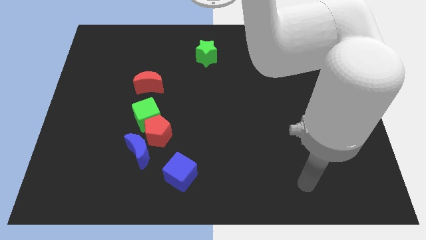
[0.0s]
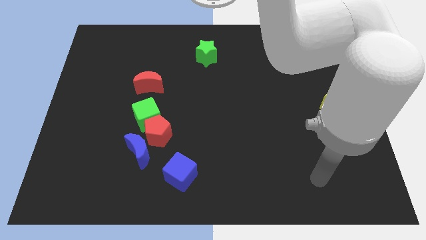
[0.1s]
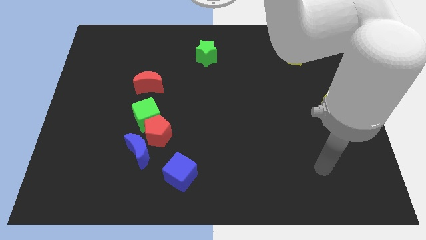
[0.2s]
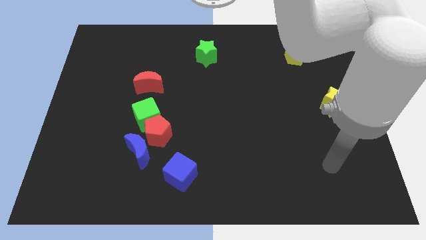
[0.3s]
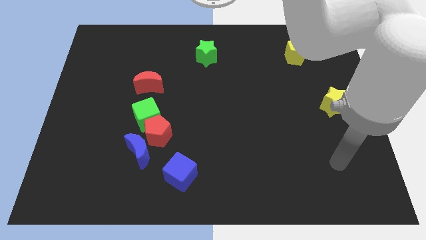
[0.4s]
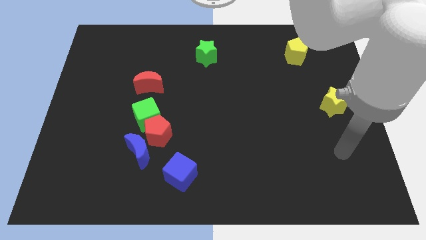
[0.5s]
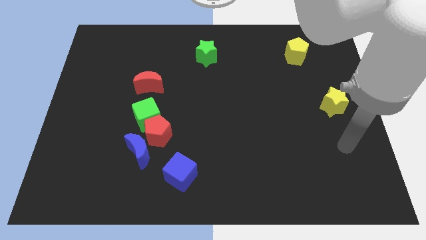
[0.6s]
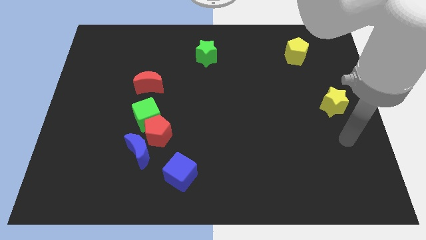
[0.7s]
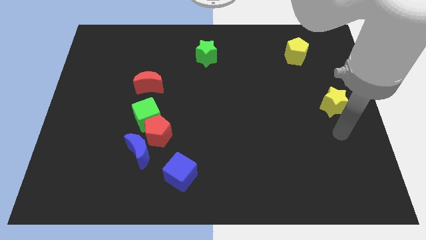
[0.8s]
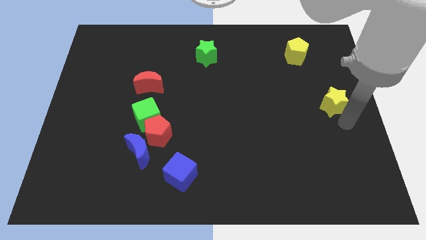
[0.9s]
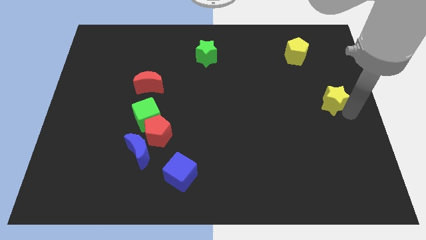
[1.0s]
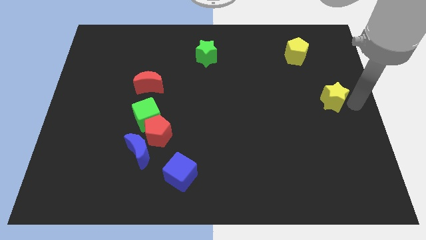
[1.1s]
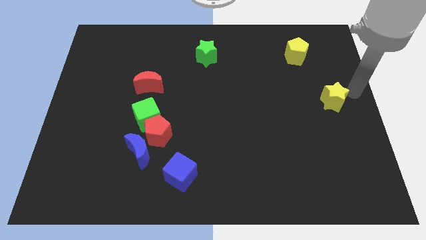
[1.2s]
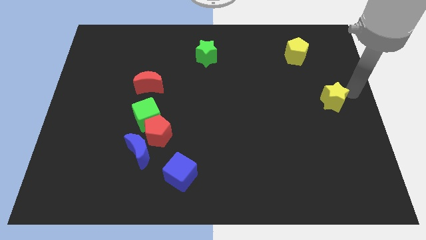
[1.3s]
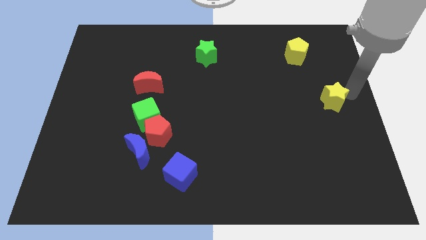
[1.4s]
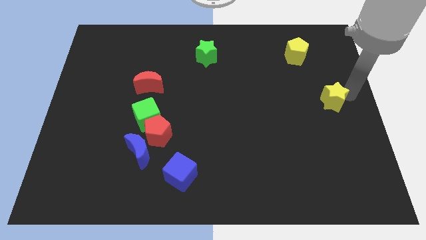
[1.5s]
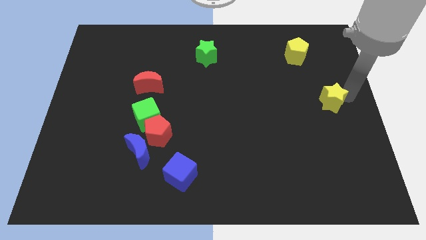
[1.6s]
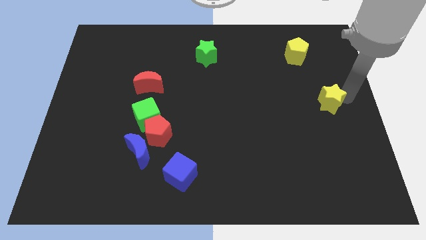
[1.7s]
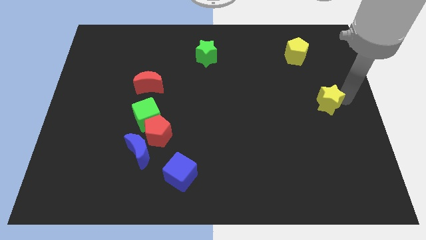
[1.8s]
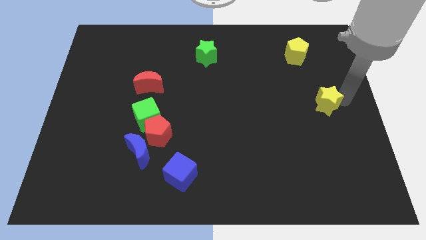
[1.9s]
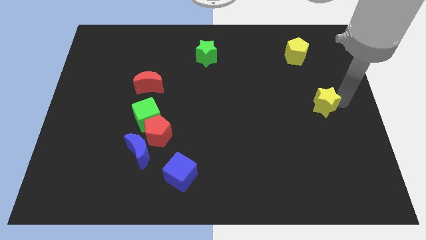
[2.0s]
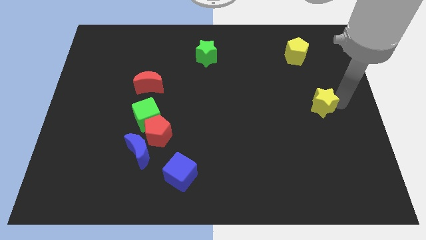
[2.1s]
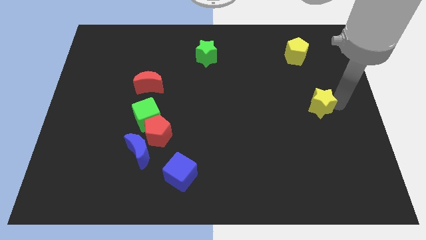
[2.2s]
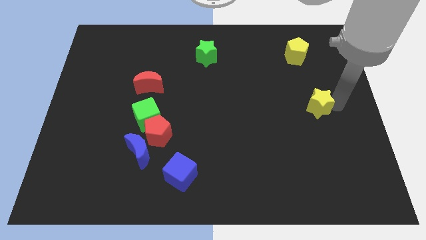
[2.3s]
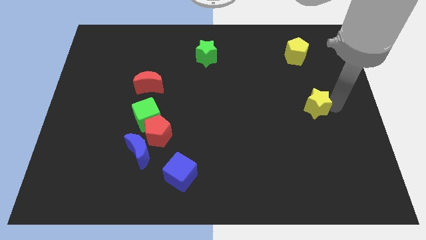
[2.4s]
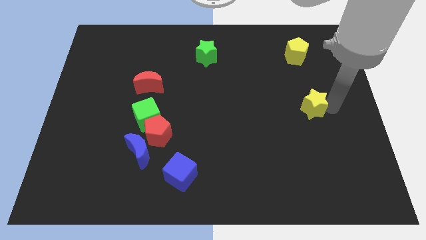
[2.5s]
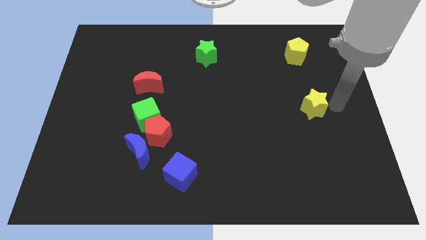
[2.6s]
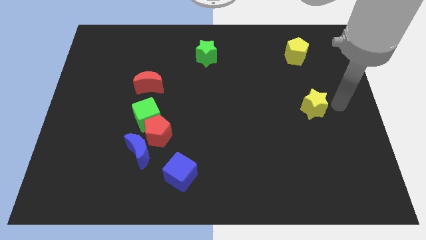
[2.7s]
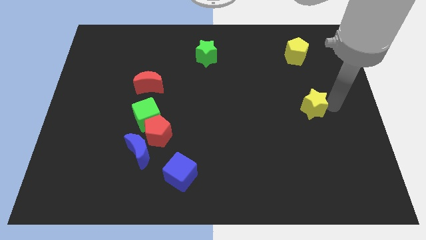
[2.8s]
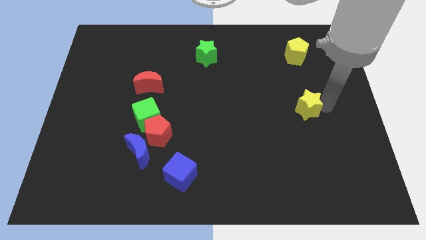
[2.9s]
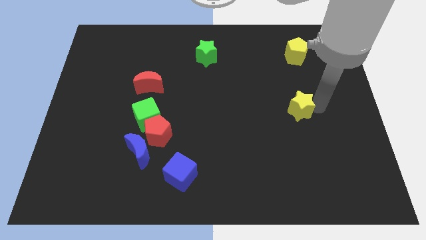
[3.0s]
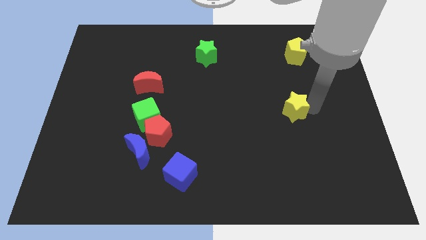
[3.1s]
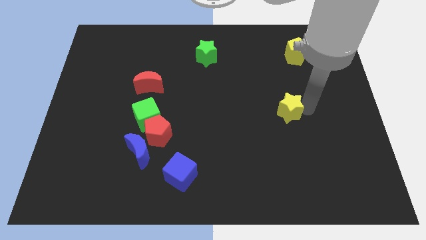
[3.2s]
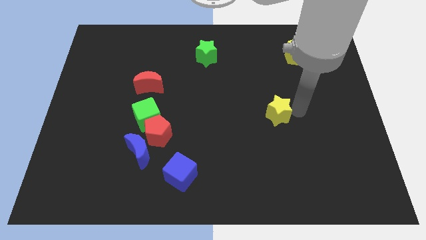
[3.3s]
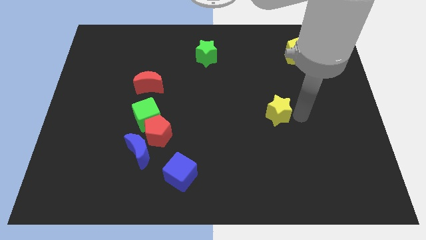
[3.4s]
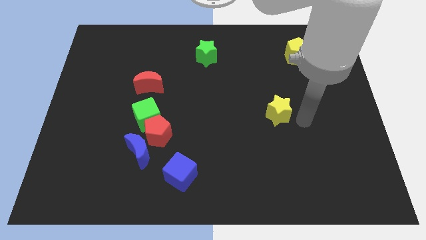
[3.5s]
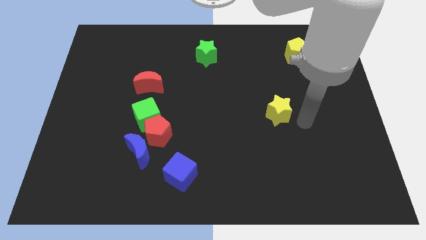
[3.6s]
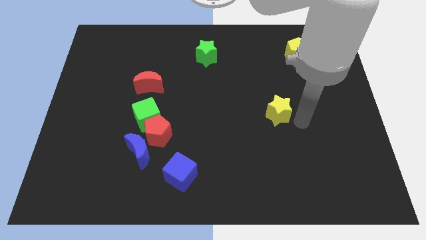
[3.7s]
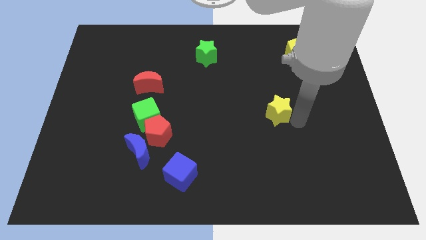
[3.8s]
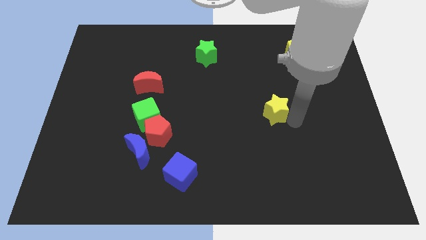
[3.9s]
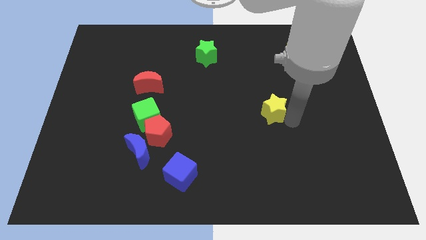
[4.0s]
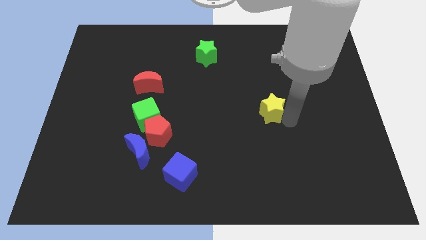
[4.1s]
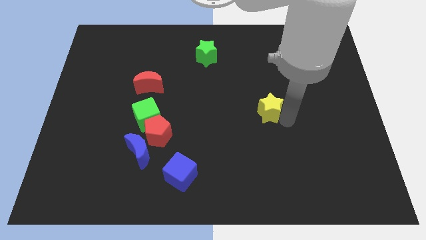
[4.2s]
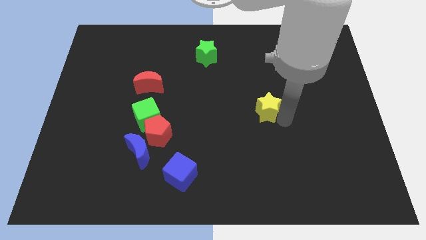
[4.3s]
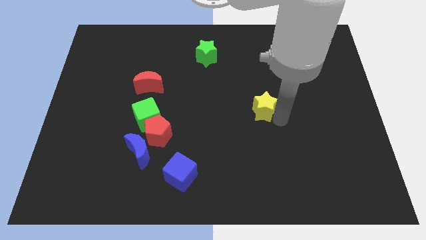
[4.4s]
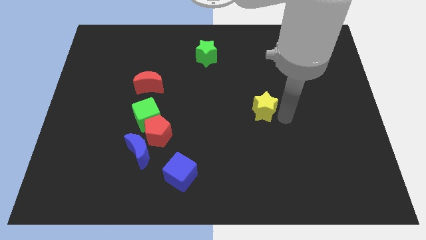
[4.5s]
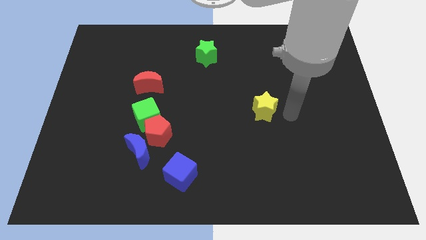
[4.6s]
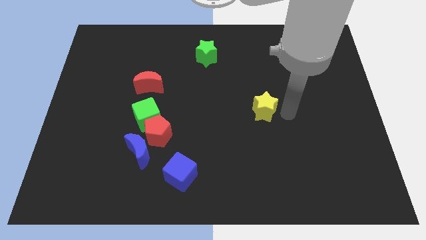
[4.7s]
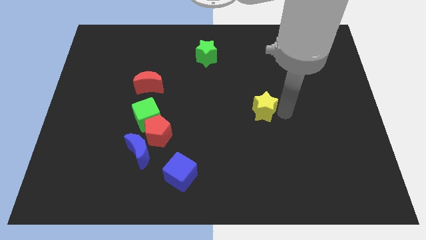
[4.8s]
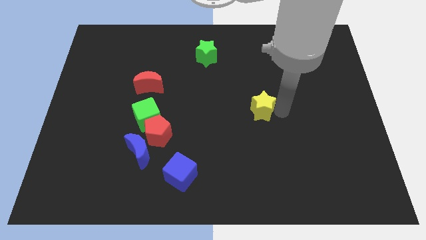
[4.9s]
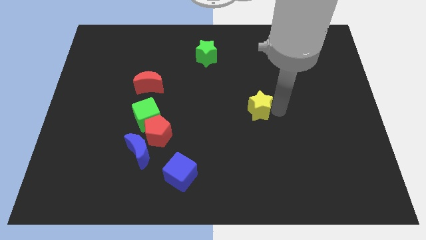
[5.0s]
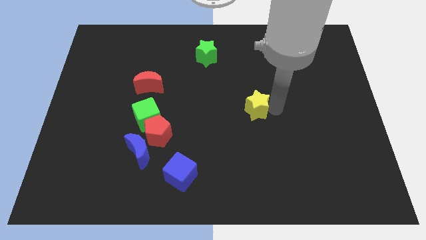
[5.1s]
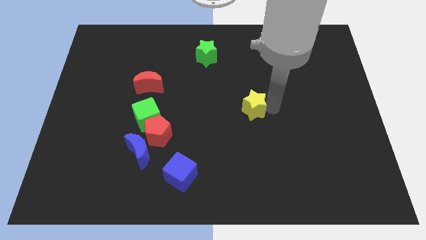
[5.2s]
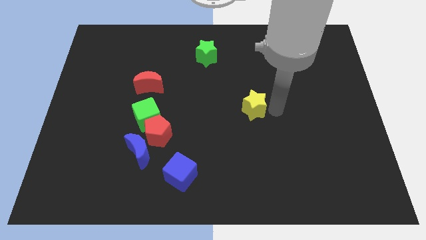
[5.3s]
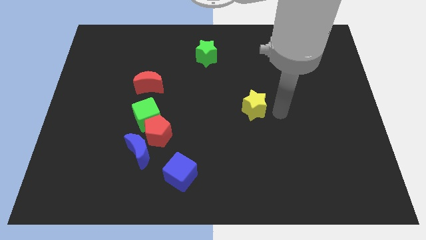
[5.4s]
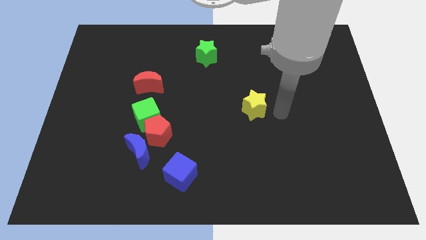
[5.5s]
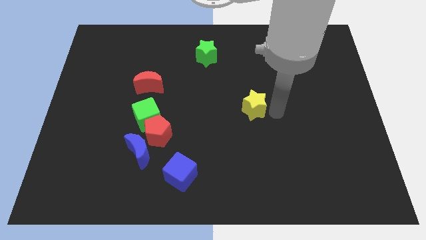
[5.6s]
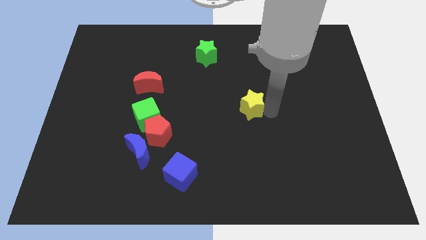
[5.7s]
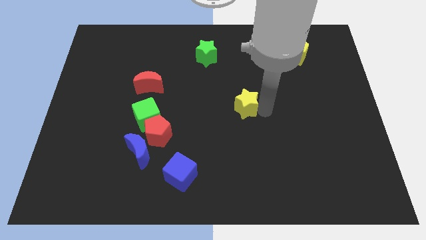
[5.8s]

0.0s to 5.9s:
slide the yellow star left

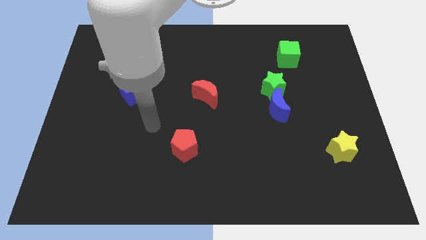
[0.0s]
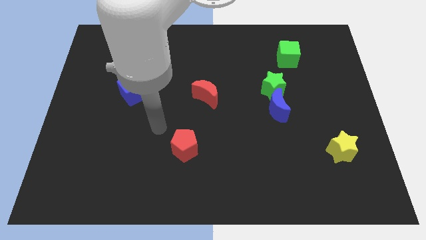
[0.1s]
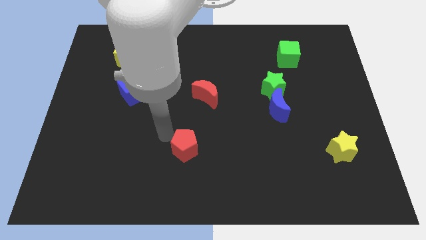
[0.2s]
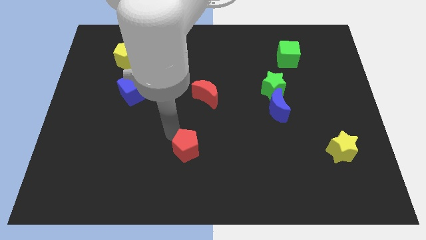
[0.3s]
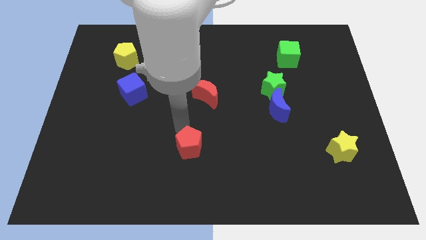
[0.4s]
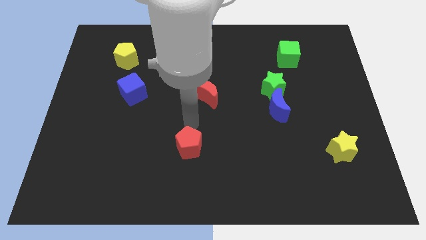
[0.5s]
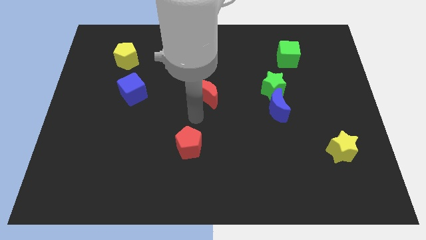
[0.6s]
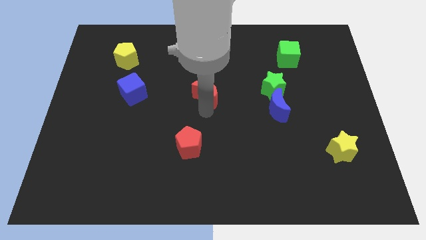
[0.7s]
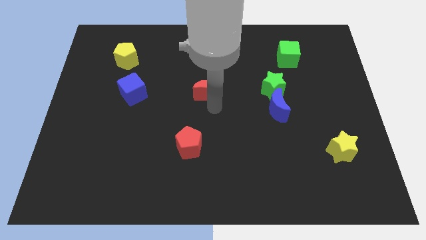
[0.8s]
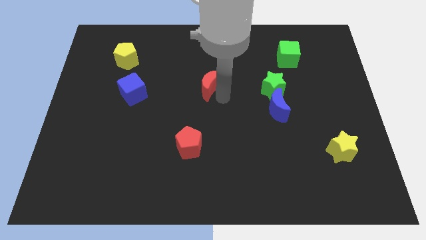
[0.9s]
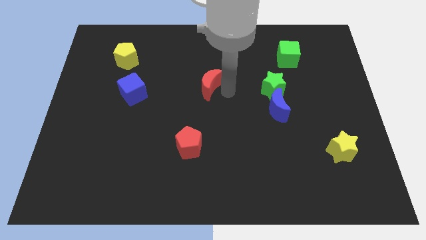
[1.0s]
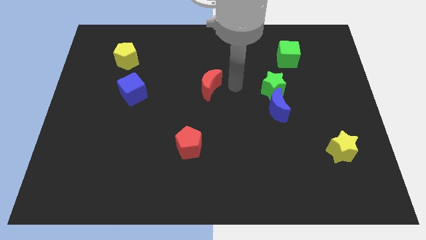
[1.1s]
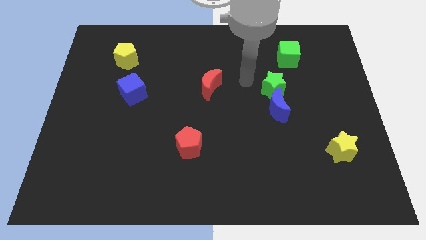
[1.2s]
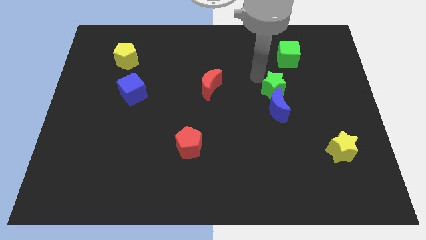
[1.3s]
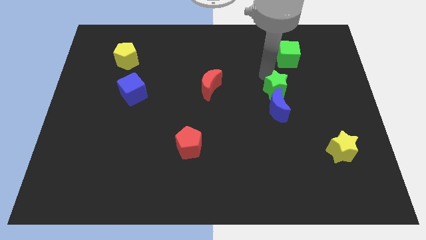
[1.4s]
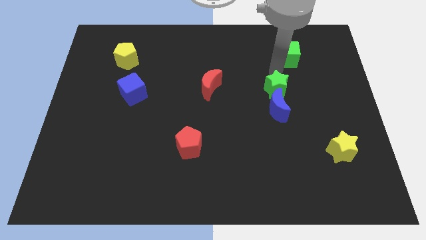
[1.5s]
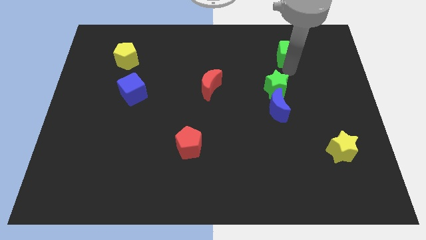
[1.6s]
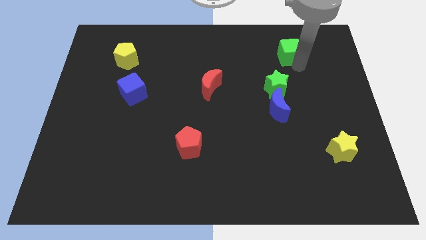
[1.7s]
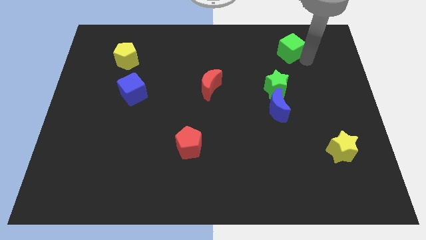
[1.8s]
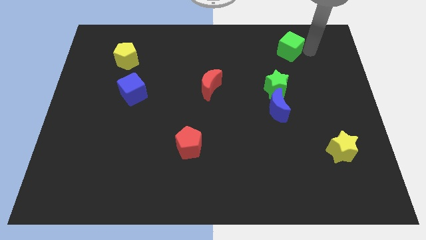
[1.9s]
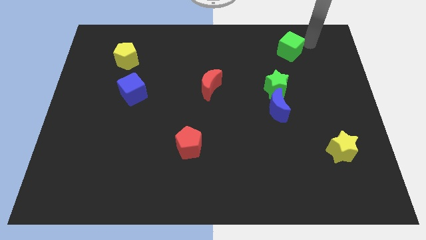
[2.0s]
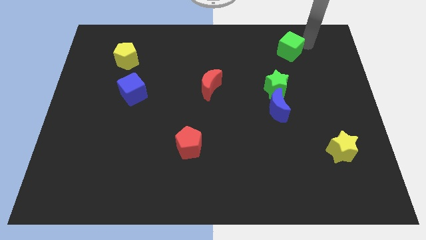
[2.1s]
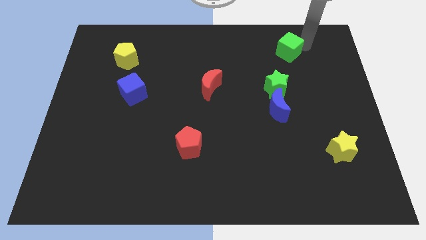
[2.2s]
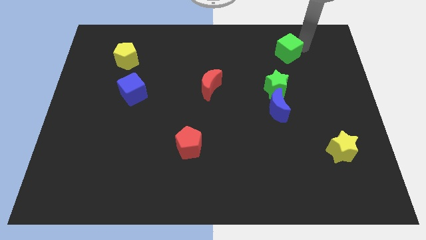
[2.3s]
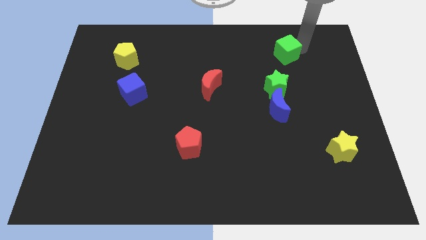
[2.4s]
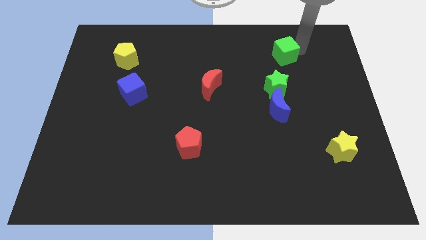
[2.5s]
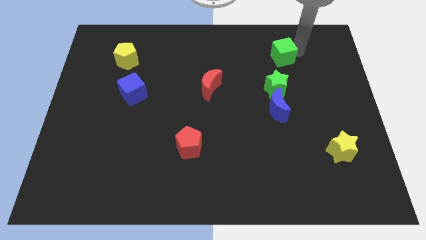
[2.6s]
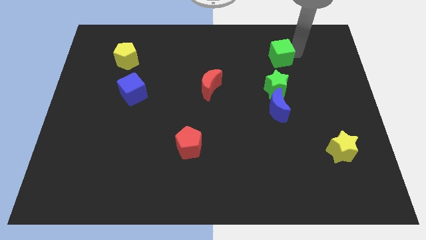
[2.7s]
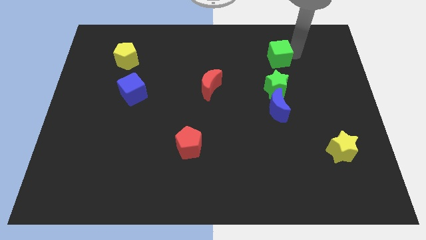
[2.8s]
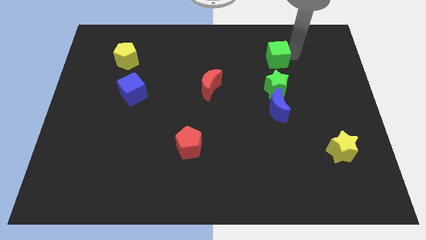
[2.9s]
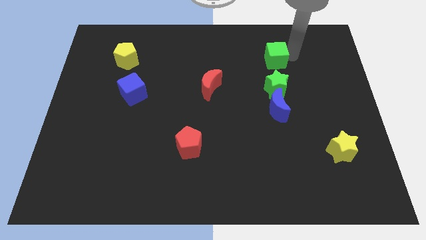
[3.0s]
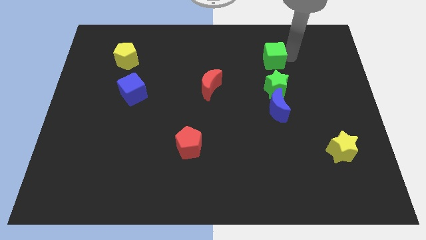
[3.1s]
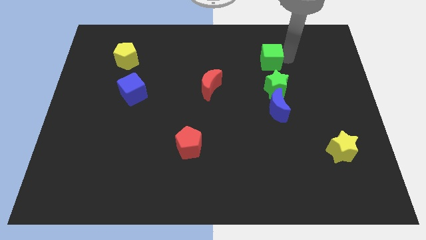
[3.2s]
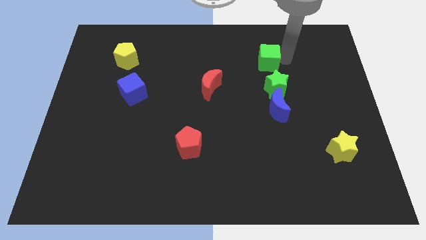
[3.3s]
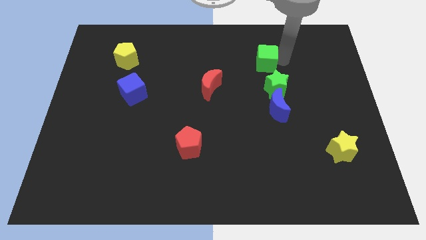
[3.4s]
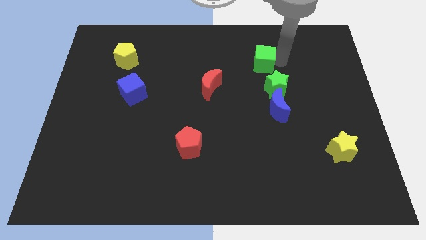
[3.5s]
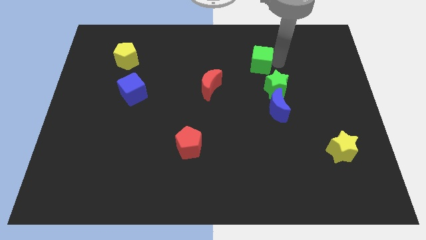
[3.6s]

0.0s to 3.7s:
slightly slide the green cube to the left
